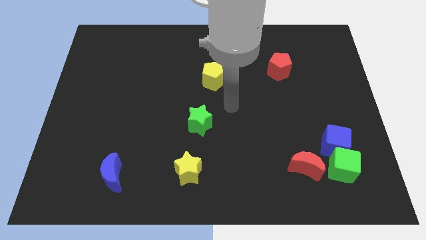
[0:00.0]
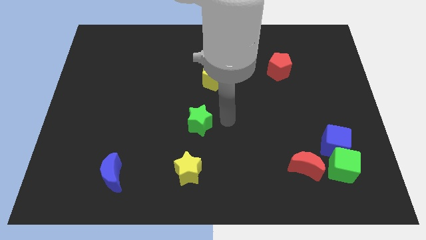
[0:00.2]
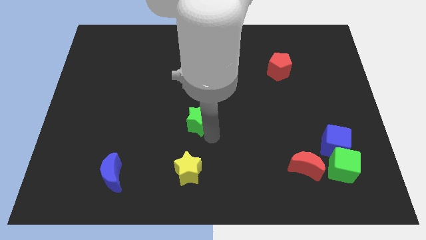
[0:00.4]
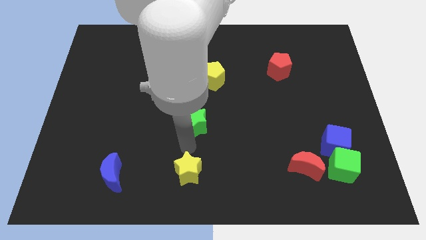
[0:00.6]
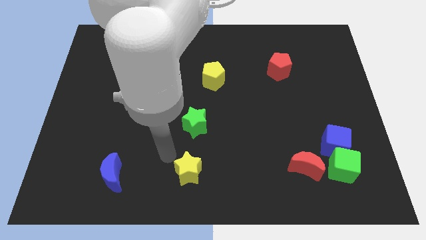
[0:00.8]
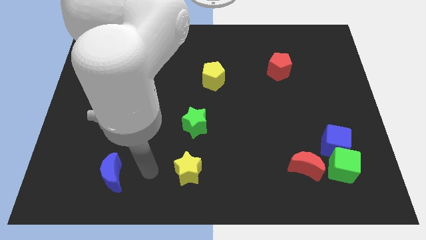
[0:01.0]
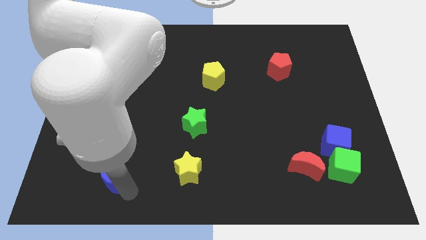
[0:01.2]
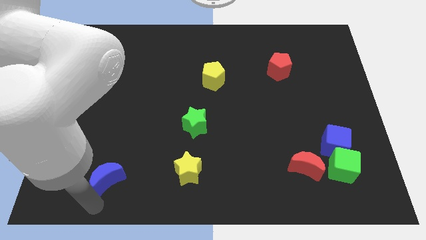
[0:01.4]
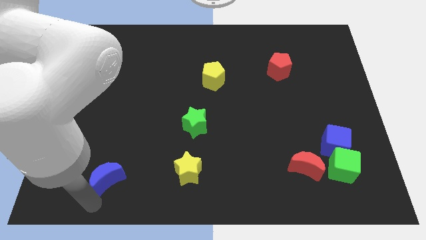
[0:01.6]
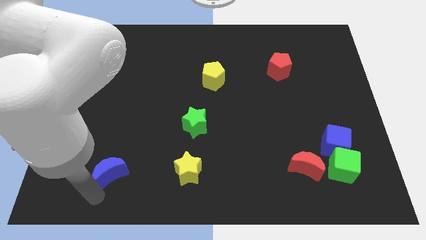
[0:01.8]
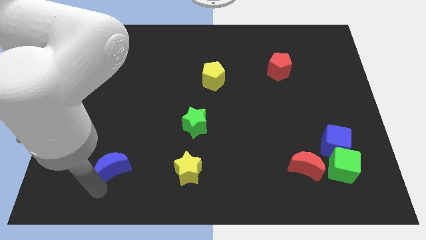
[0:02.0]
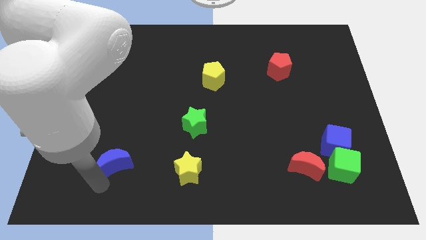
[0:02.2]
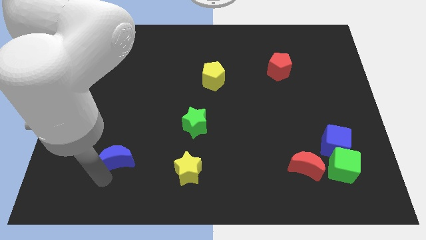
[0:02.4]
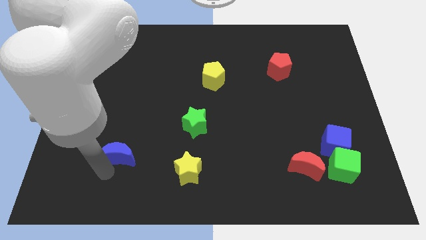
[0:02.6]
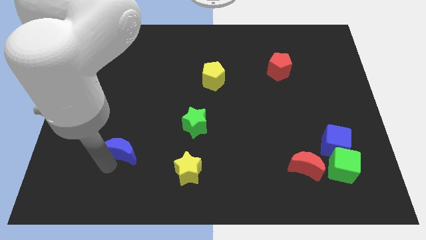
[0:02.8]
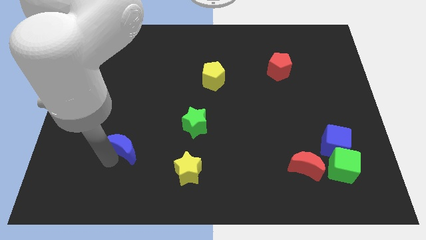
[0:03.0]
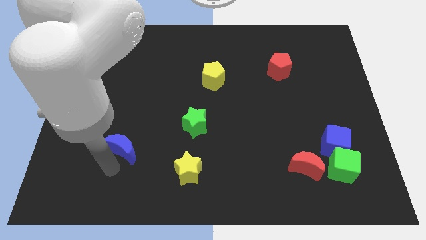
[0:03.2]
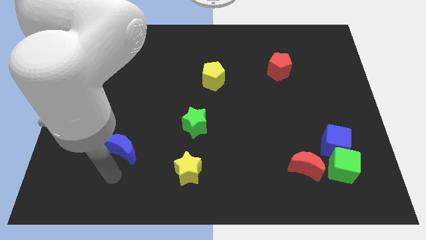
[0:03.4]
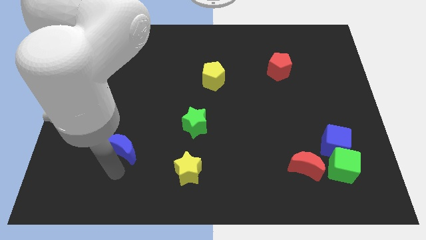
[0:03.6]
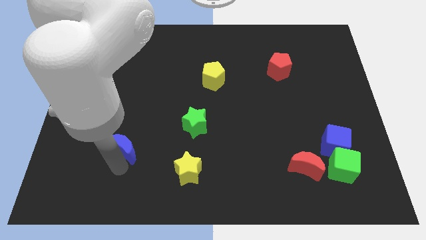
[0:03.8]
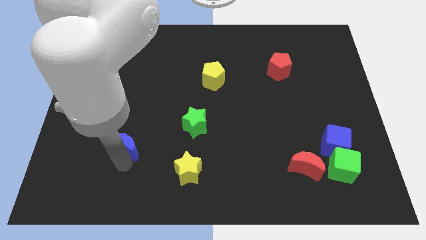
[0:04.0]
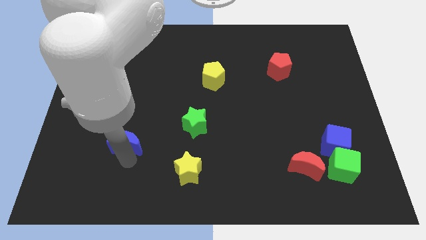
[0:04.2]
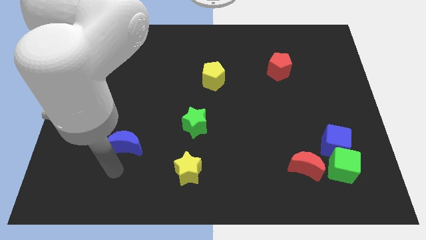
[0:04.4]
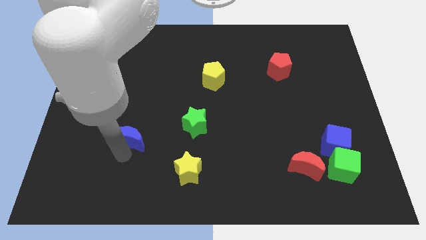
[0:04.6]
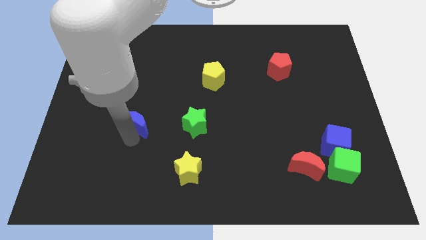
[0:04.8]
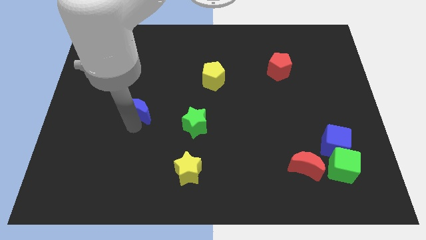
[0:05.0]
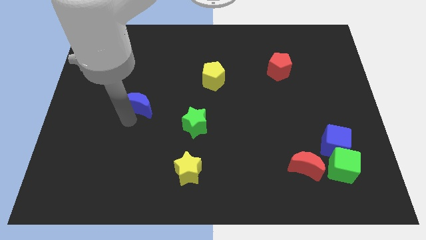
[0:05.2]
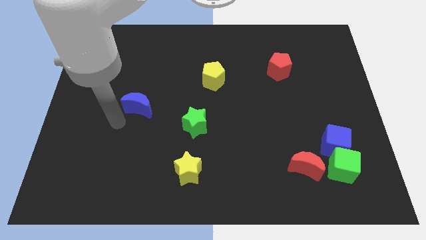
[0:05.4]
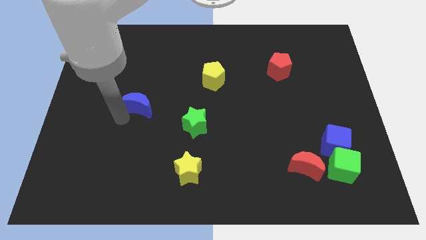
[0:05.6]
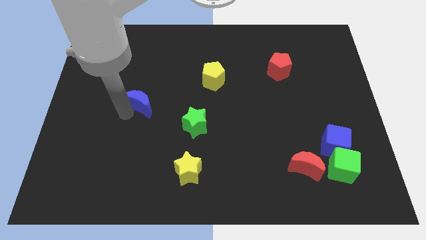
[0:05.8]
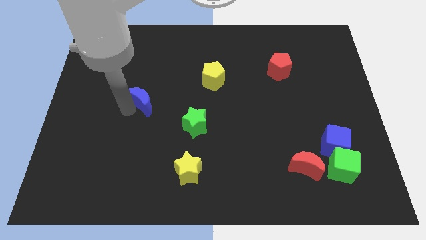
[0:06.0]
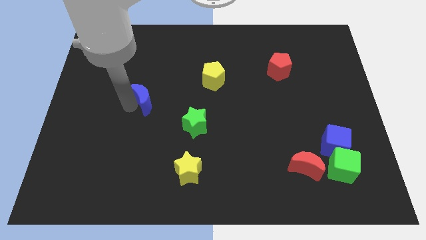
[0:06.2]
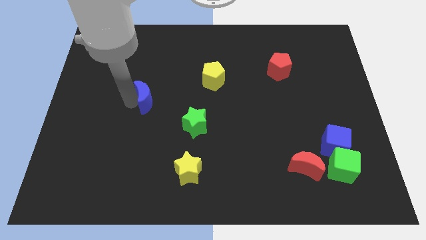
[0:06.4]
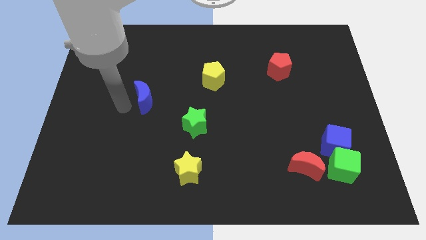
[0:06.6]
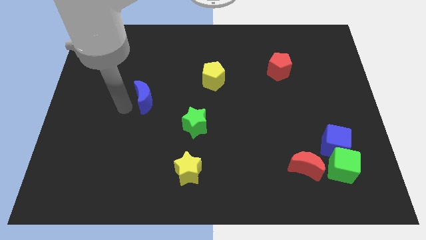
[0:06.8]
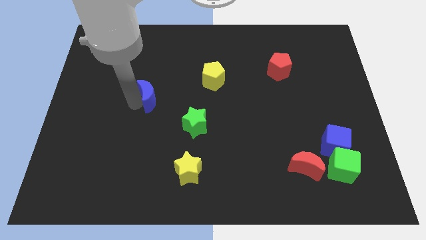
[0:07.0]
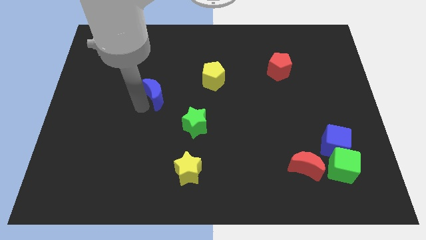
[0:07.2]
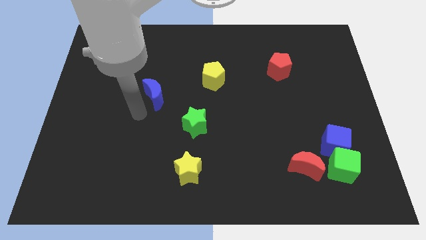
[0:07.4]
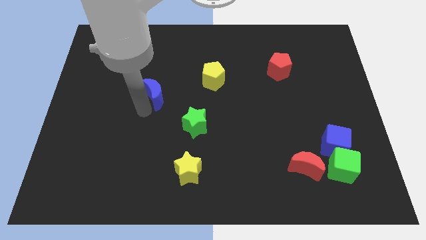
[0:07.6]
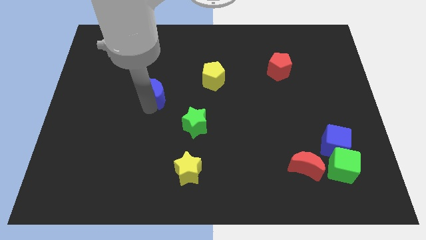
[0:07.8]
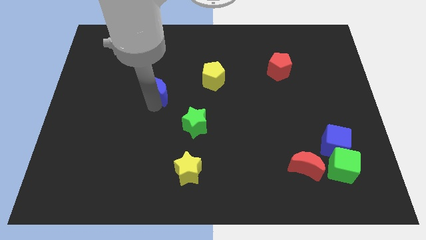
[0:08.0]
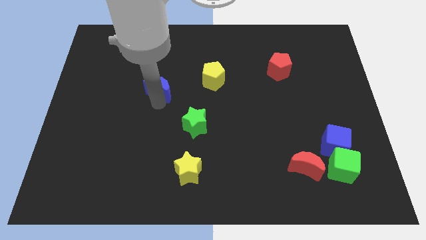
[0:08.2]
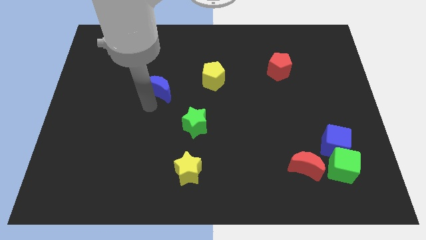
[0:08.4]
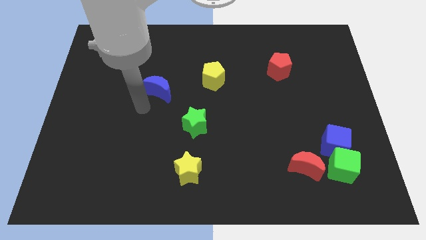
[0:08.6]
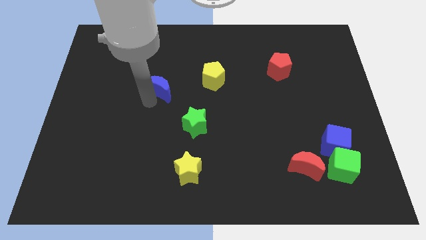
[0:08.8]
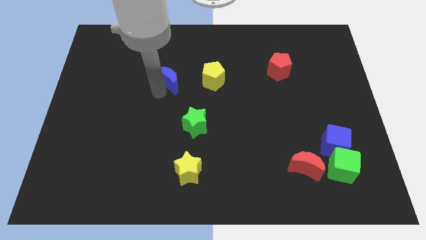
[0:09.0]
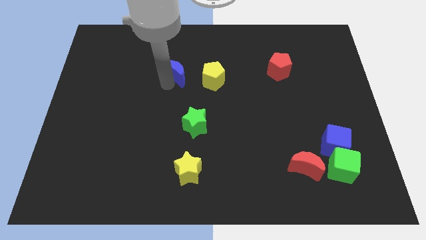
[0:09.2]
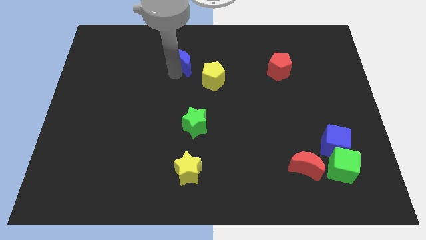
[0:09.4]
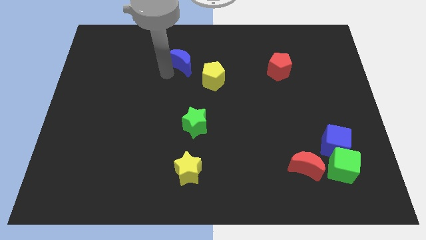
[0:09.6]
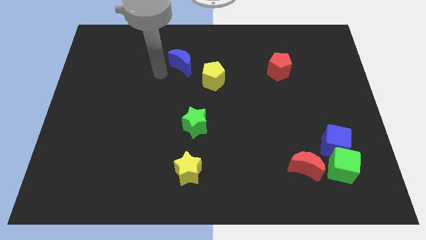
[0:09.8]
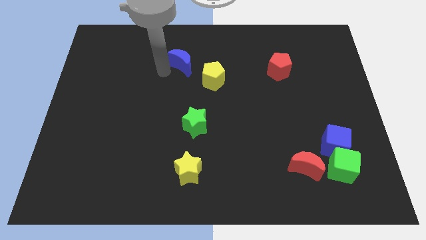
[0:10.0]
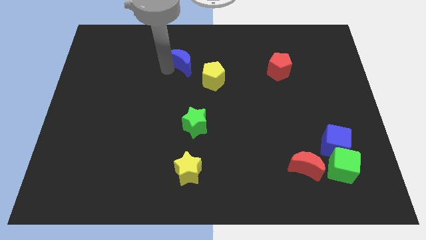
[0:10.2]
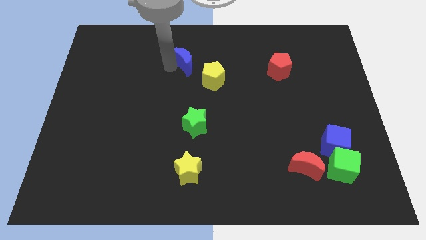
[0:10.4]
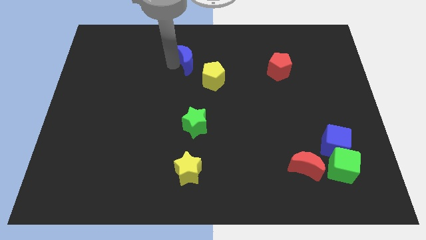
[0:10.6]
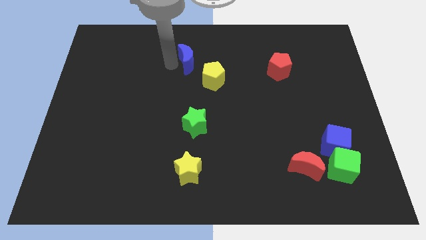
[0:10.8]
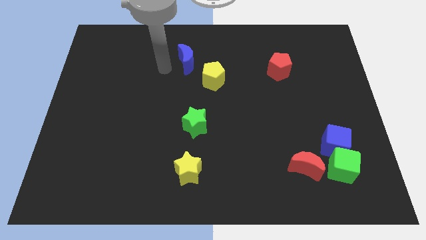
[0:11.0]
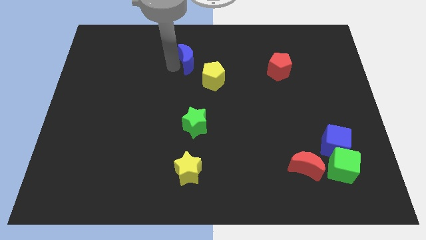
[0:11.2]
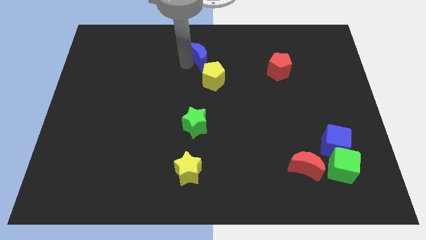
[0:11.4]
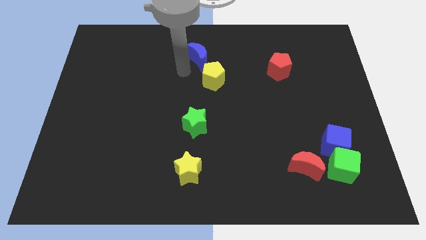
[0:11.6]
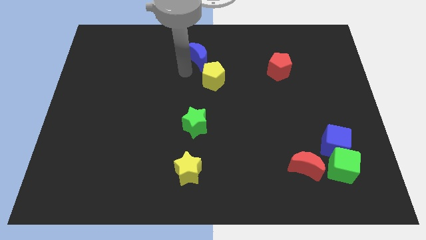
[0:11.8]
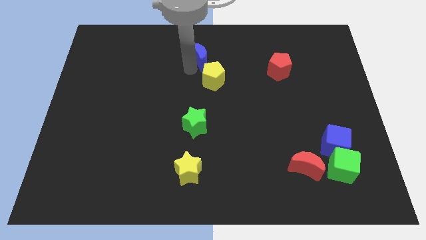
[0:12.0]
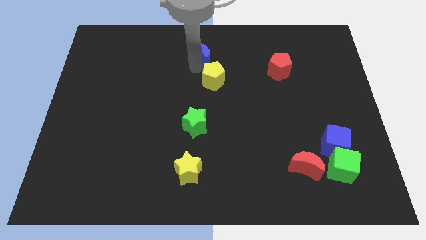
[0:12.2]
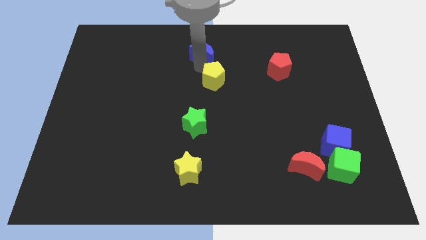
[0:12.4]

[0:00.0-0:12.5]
slide the blue moon to the towards your base
